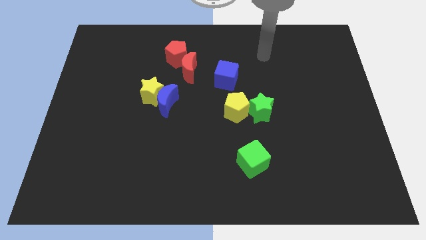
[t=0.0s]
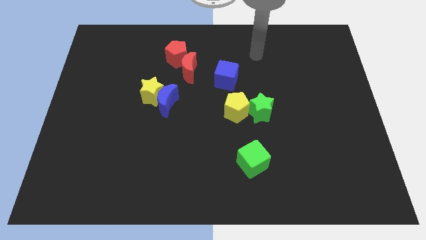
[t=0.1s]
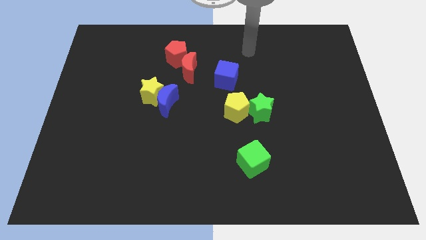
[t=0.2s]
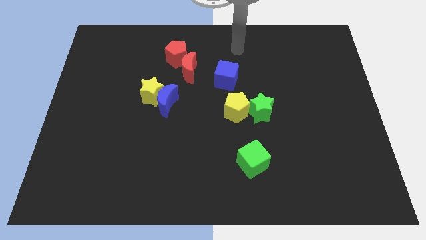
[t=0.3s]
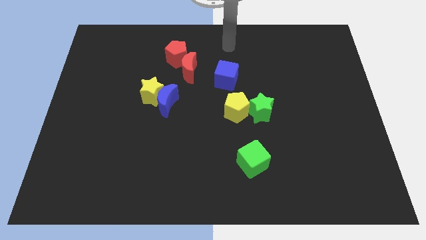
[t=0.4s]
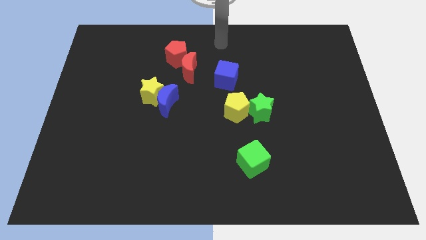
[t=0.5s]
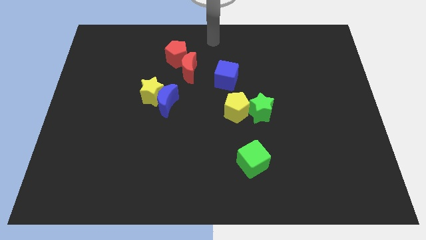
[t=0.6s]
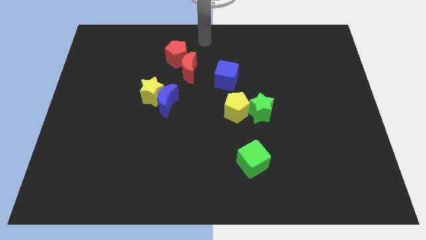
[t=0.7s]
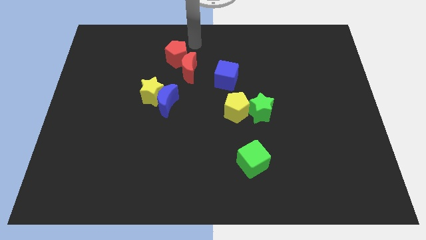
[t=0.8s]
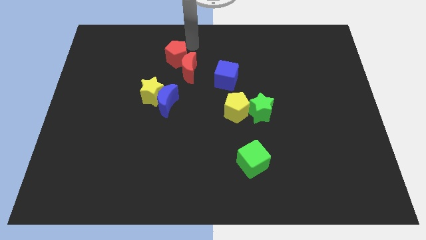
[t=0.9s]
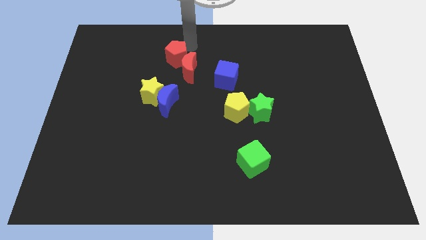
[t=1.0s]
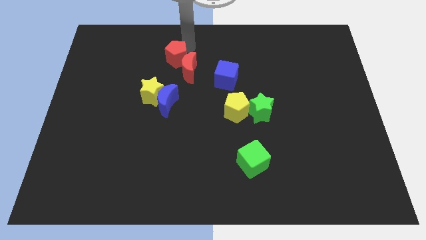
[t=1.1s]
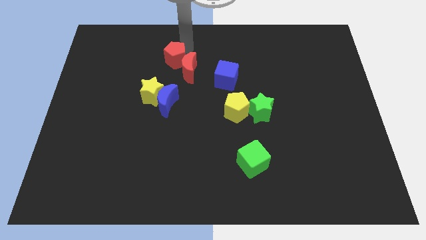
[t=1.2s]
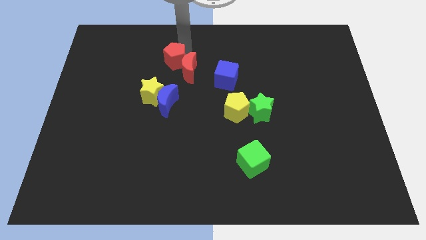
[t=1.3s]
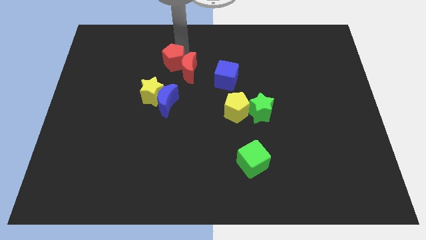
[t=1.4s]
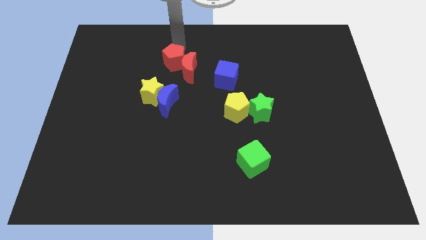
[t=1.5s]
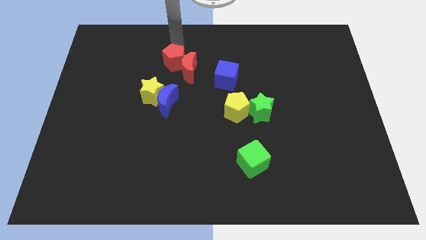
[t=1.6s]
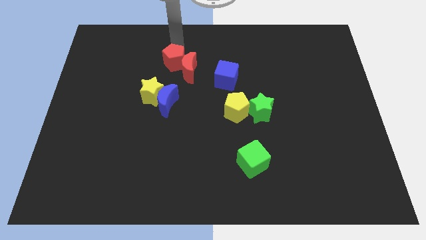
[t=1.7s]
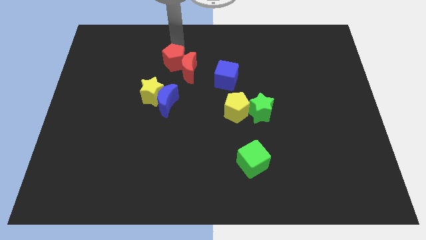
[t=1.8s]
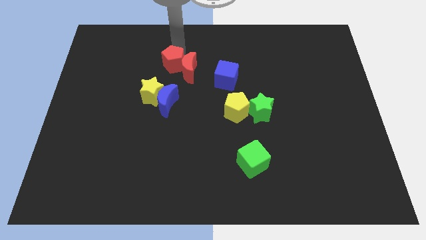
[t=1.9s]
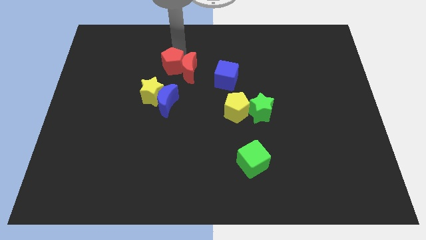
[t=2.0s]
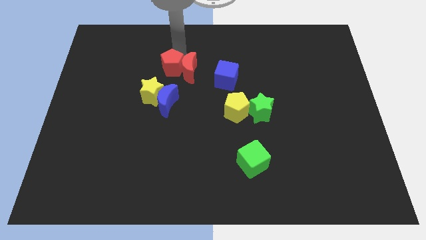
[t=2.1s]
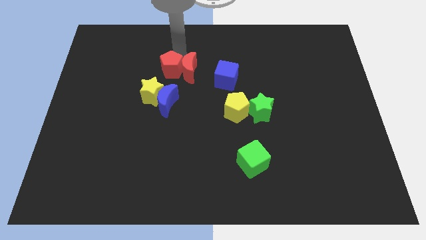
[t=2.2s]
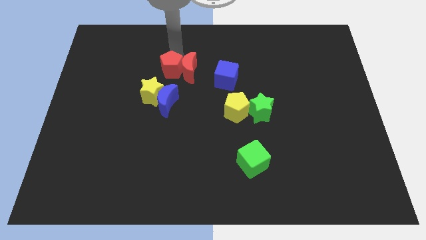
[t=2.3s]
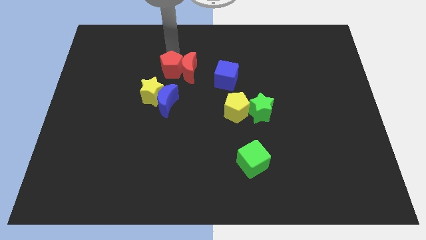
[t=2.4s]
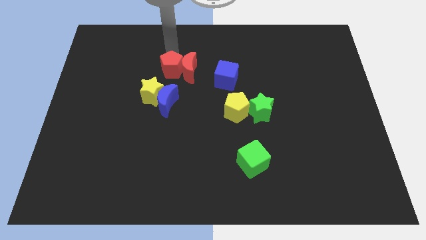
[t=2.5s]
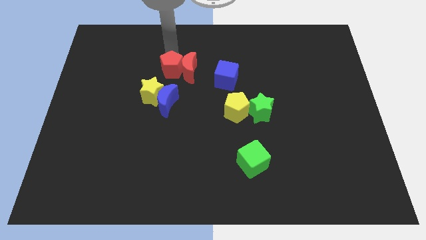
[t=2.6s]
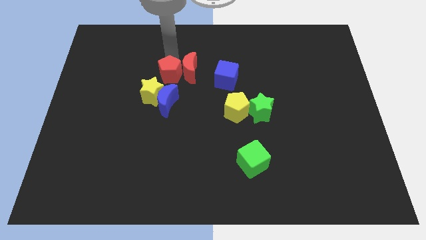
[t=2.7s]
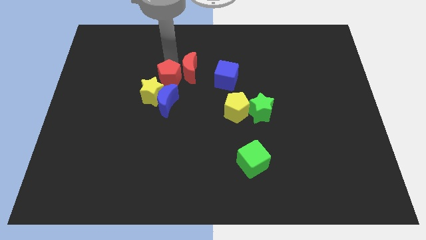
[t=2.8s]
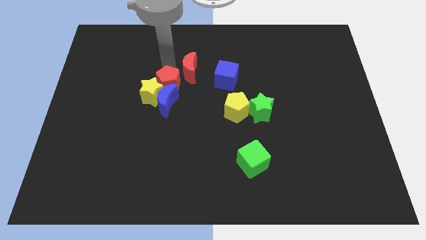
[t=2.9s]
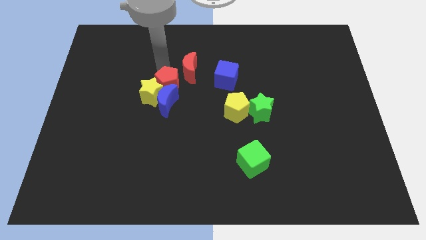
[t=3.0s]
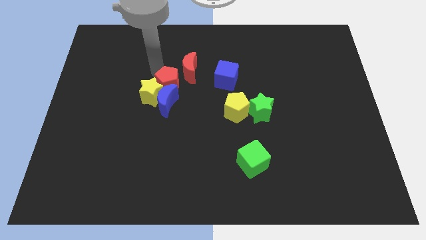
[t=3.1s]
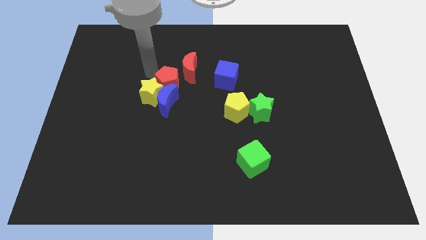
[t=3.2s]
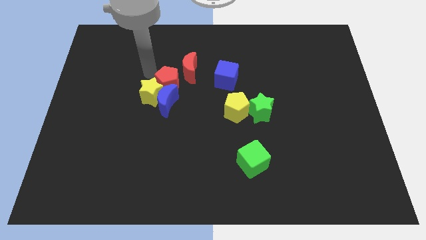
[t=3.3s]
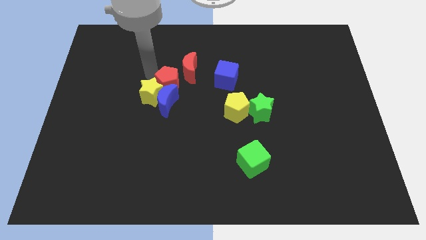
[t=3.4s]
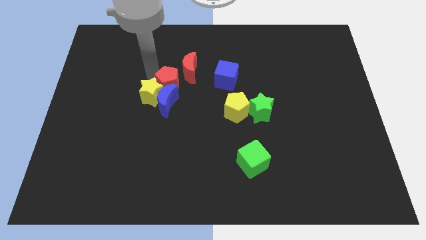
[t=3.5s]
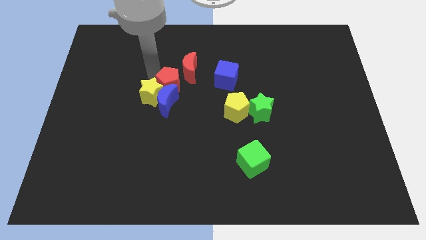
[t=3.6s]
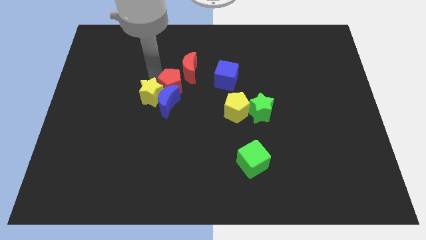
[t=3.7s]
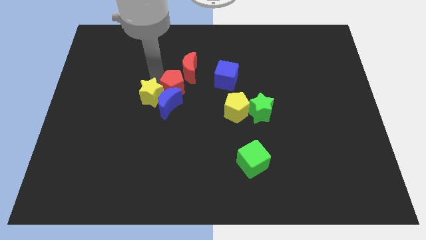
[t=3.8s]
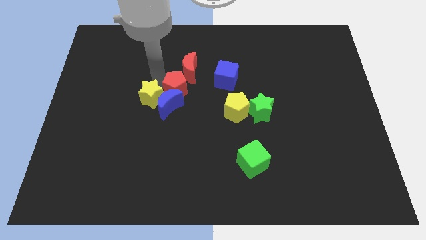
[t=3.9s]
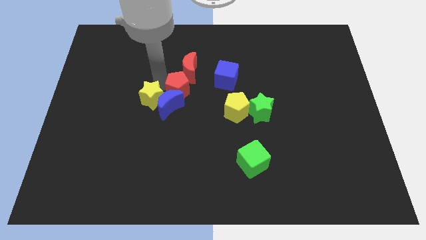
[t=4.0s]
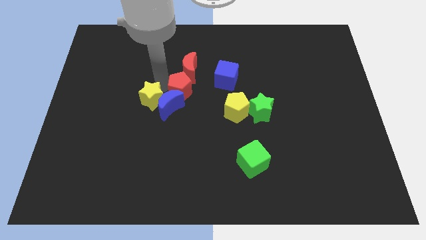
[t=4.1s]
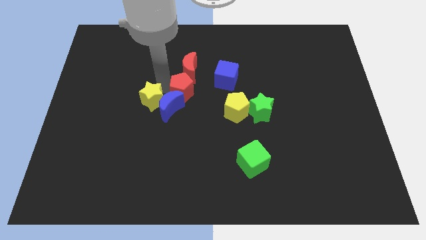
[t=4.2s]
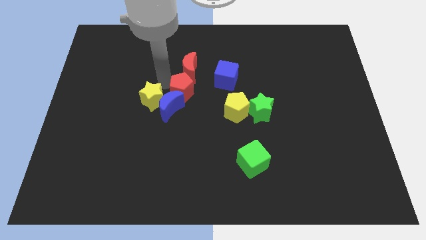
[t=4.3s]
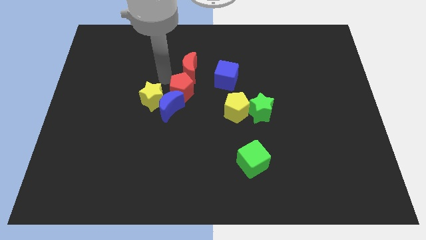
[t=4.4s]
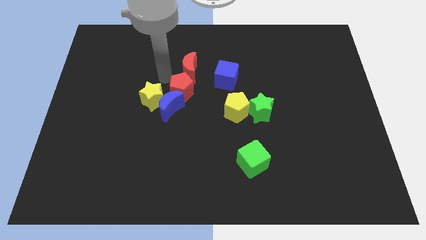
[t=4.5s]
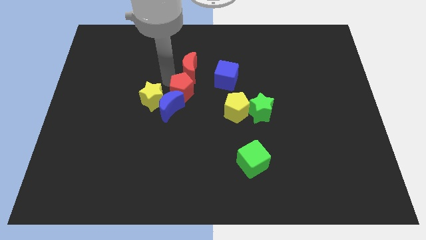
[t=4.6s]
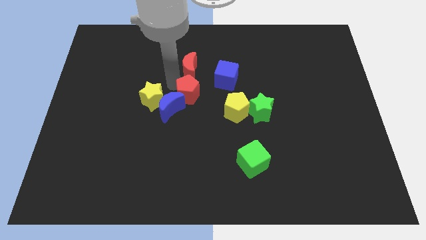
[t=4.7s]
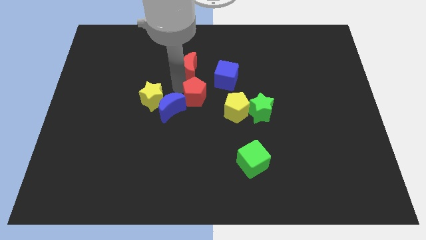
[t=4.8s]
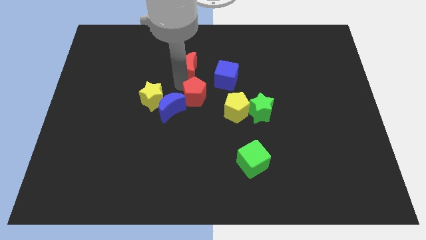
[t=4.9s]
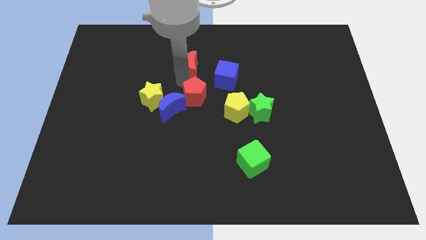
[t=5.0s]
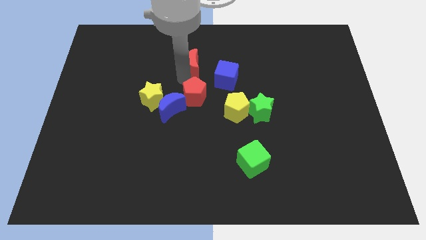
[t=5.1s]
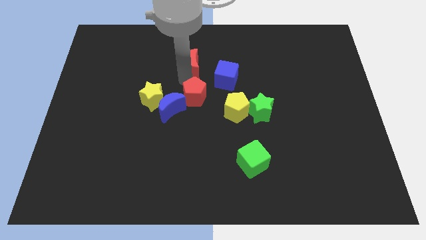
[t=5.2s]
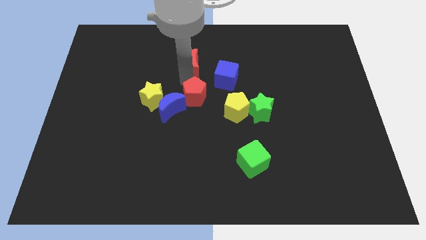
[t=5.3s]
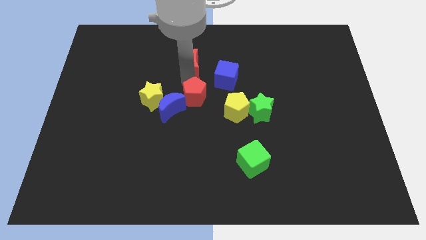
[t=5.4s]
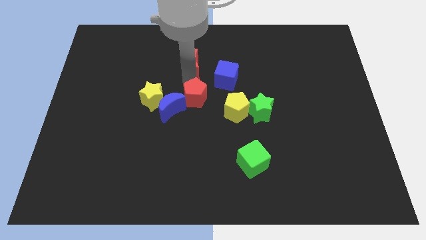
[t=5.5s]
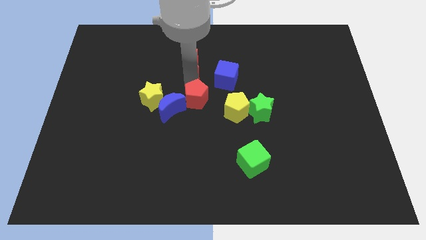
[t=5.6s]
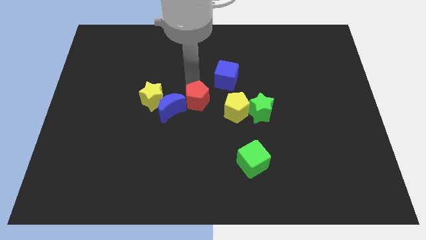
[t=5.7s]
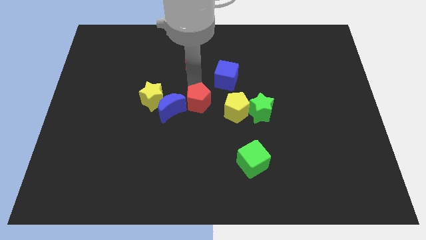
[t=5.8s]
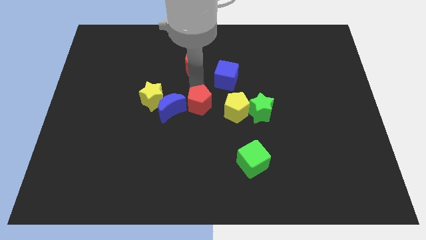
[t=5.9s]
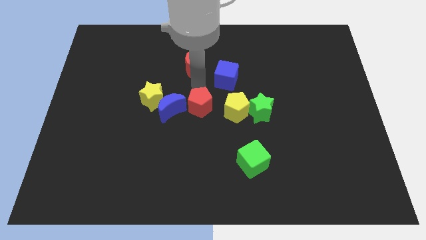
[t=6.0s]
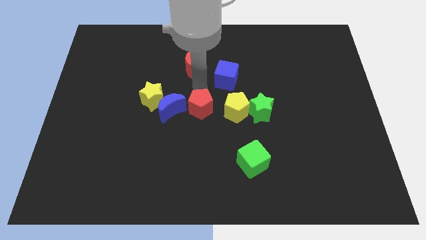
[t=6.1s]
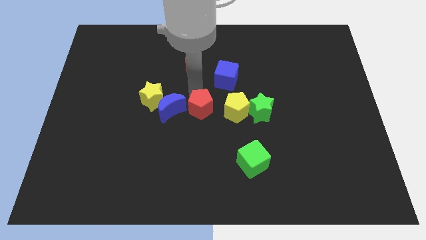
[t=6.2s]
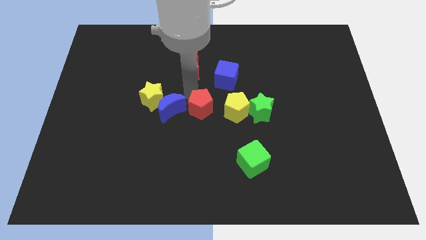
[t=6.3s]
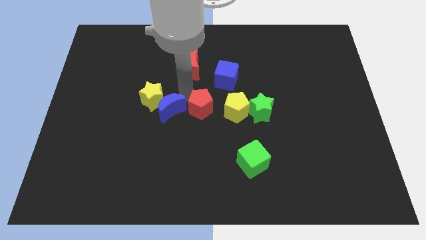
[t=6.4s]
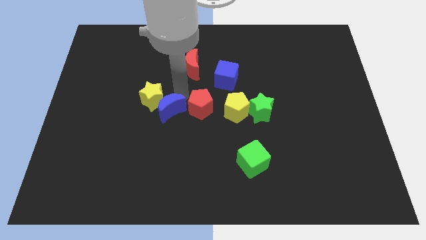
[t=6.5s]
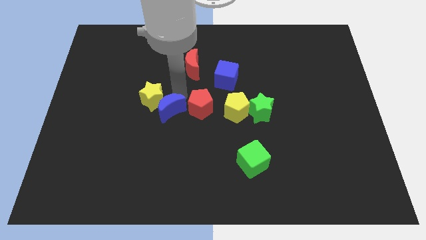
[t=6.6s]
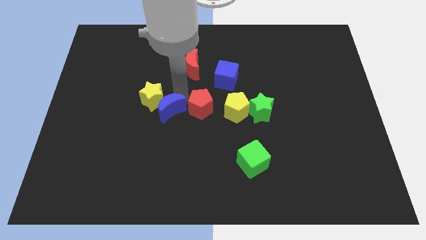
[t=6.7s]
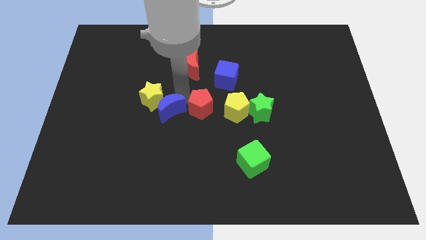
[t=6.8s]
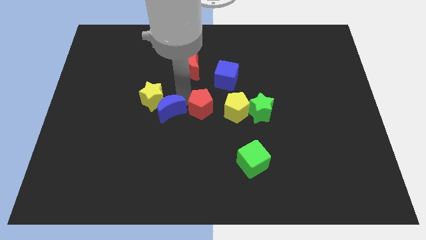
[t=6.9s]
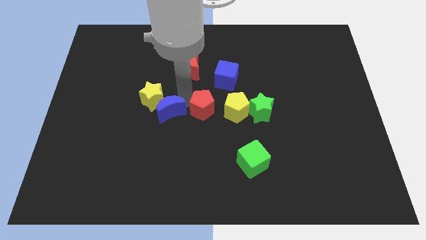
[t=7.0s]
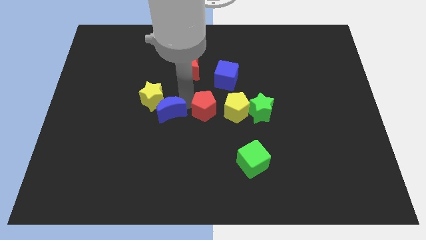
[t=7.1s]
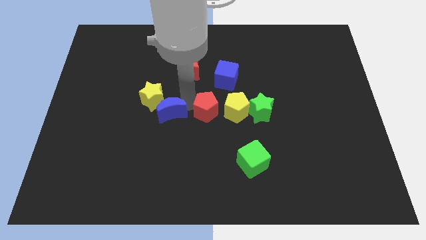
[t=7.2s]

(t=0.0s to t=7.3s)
push the red pentagon to the bottom of the blue cube
